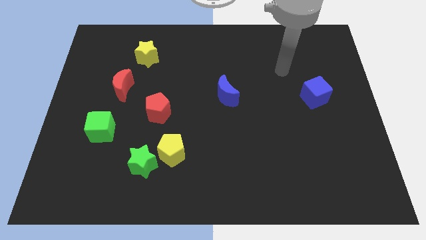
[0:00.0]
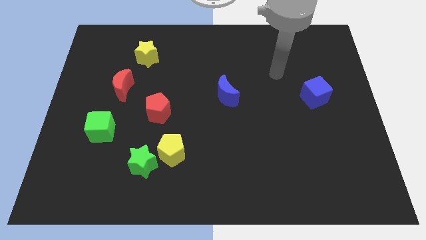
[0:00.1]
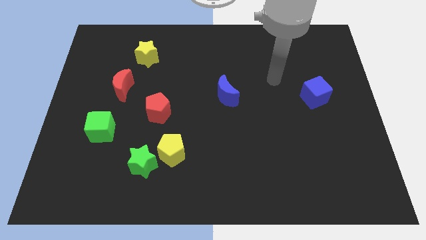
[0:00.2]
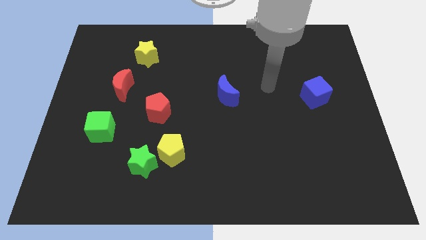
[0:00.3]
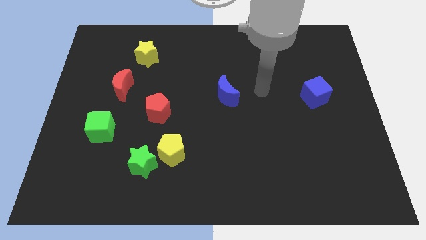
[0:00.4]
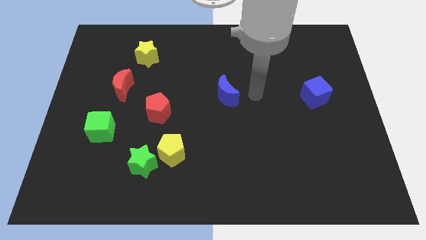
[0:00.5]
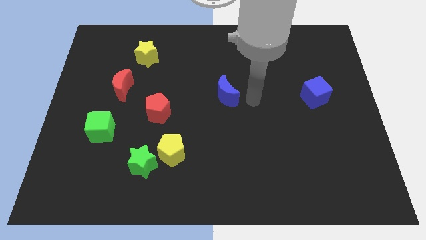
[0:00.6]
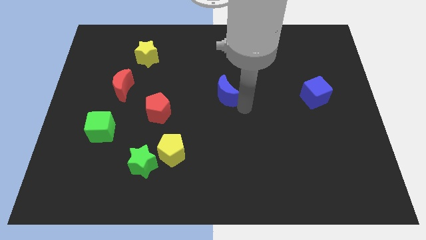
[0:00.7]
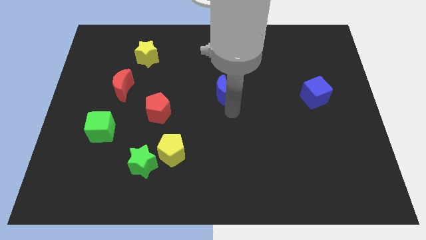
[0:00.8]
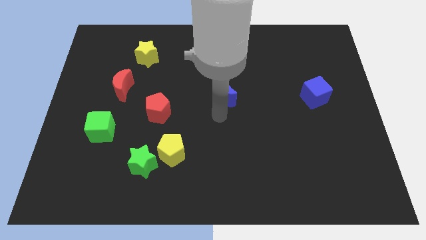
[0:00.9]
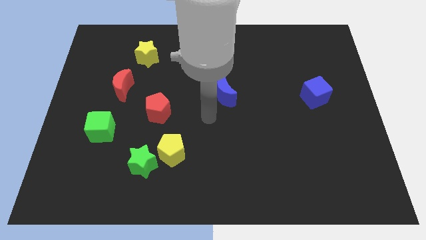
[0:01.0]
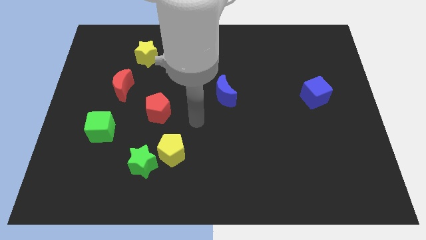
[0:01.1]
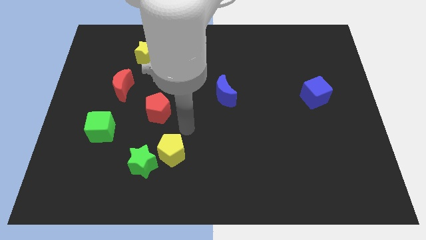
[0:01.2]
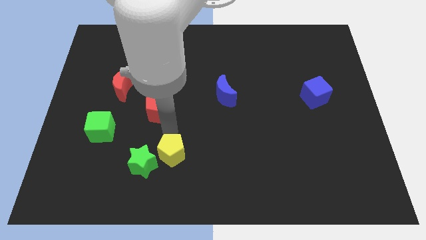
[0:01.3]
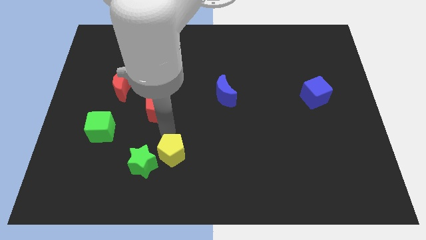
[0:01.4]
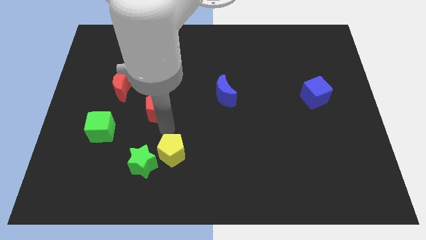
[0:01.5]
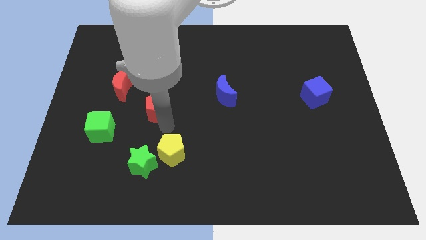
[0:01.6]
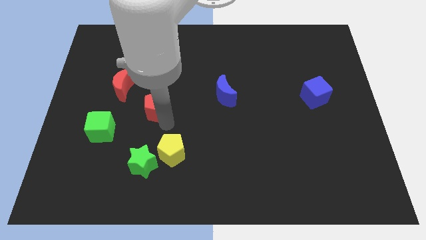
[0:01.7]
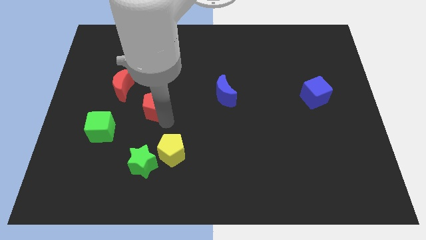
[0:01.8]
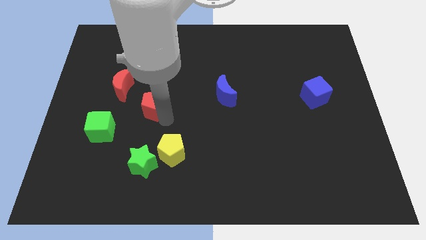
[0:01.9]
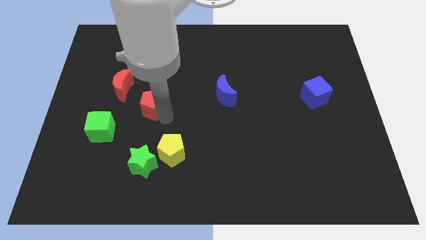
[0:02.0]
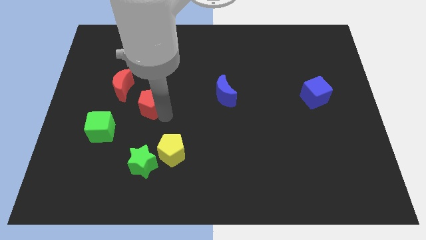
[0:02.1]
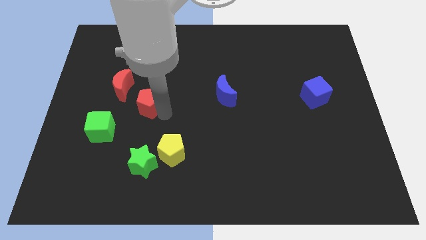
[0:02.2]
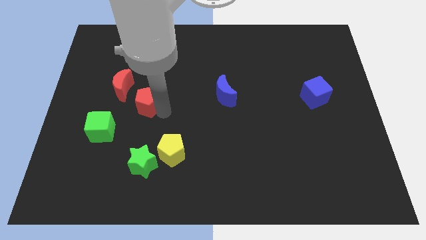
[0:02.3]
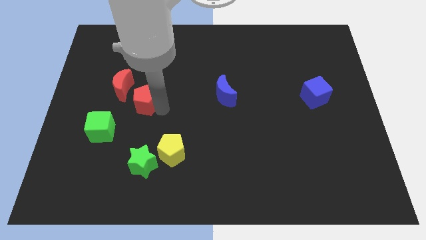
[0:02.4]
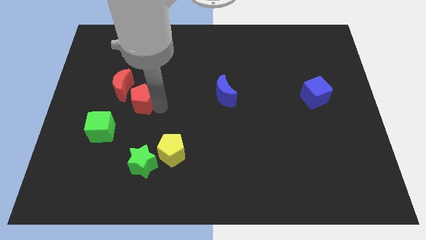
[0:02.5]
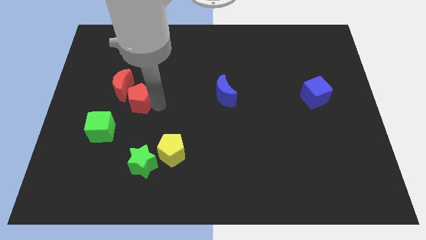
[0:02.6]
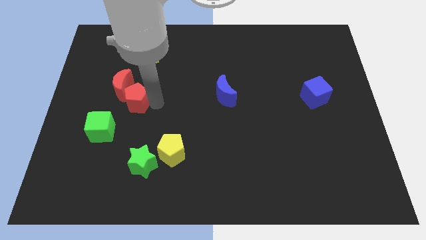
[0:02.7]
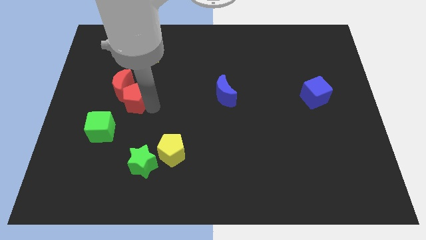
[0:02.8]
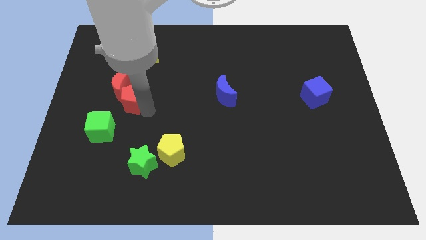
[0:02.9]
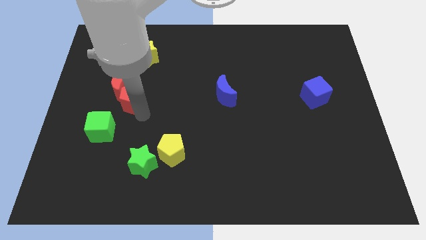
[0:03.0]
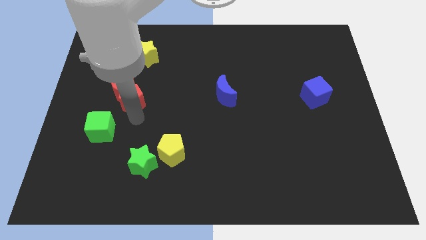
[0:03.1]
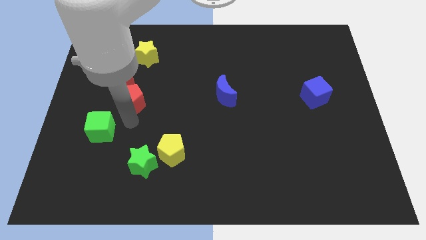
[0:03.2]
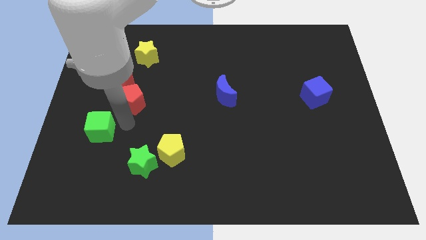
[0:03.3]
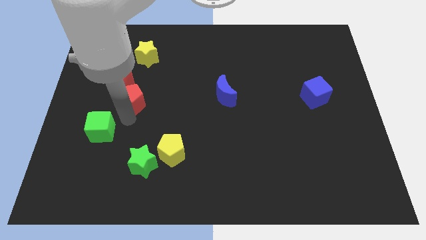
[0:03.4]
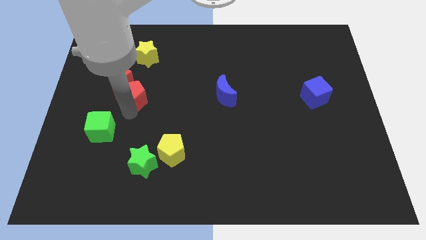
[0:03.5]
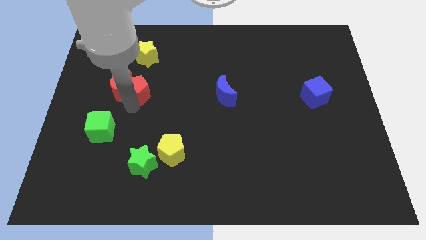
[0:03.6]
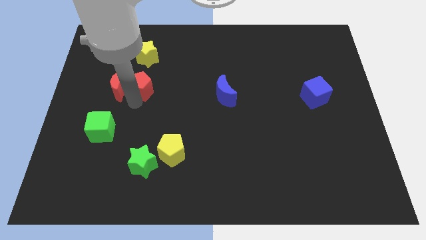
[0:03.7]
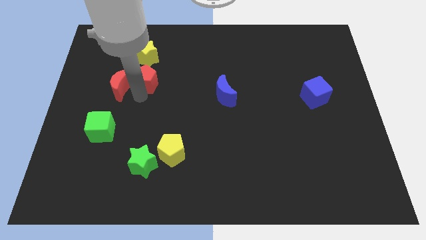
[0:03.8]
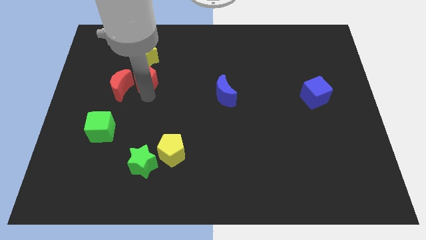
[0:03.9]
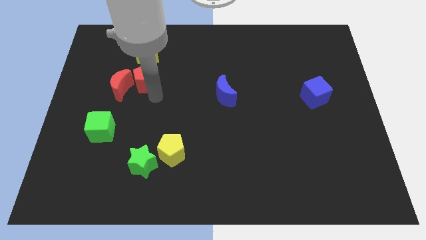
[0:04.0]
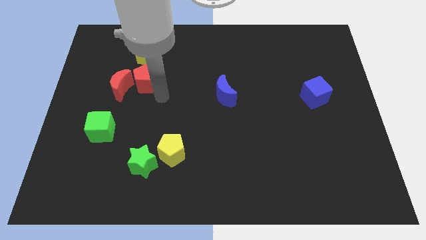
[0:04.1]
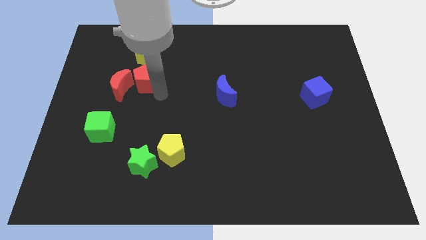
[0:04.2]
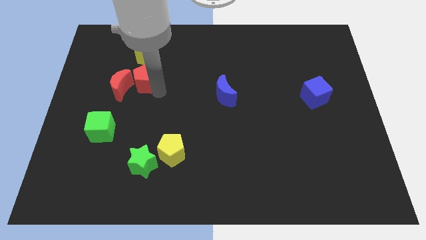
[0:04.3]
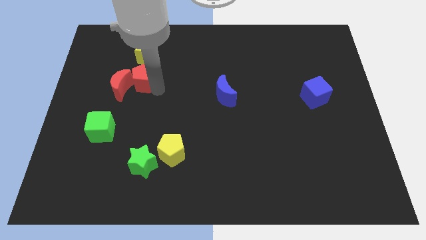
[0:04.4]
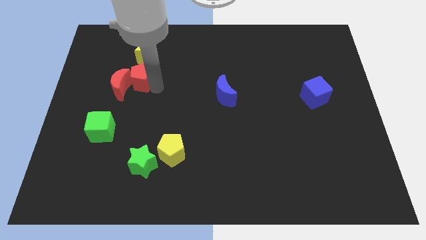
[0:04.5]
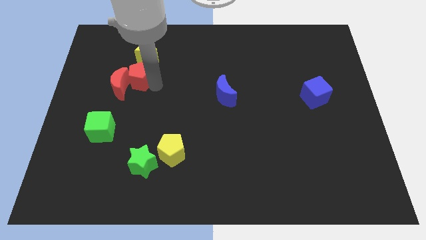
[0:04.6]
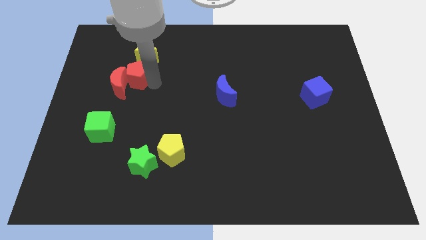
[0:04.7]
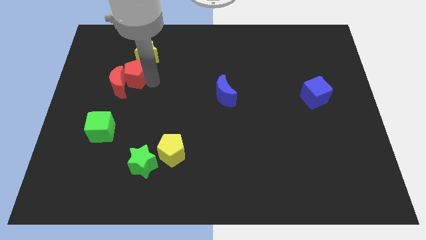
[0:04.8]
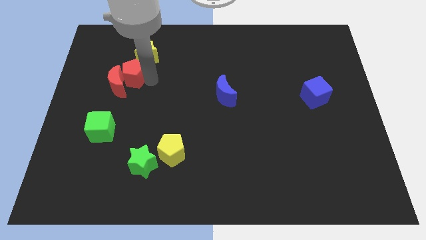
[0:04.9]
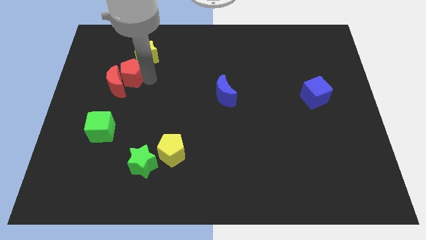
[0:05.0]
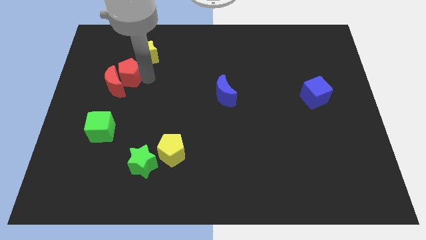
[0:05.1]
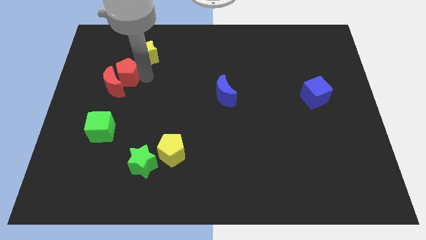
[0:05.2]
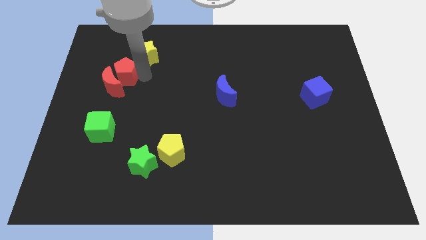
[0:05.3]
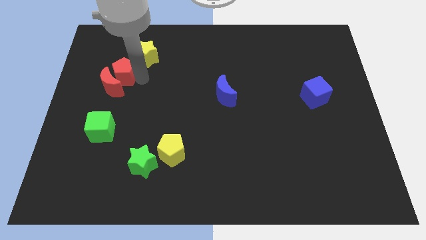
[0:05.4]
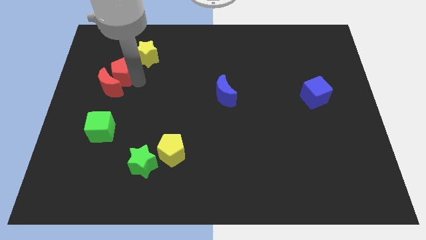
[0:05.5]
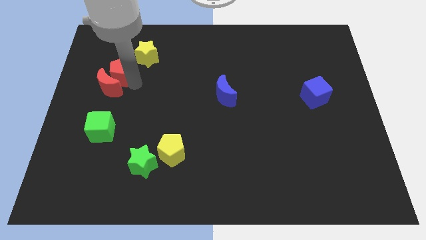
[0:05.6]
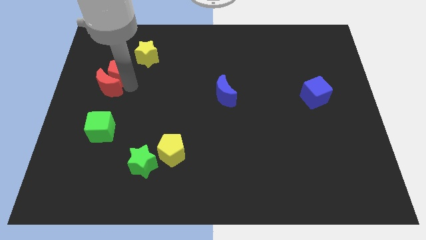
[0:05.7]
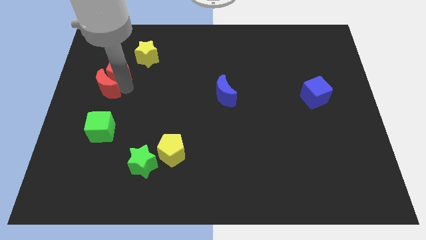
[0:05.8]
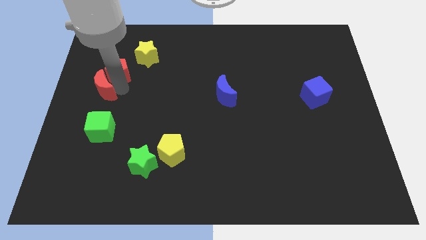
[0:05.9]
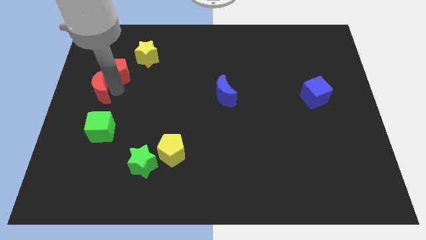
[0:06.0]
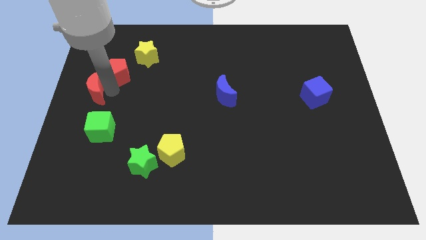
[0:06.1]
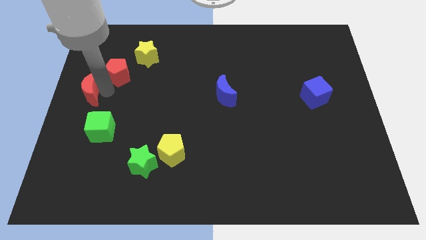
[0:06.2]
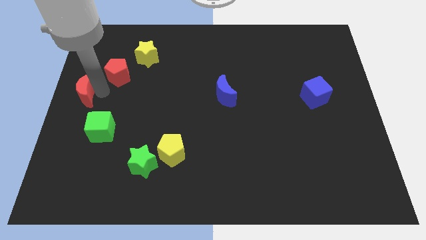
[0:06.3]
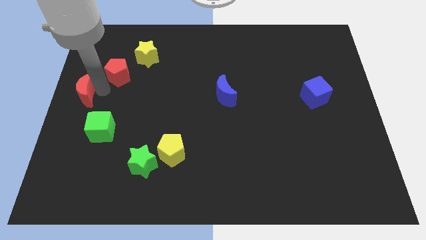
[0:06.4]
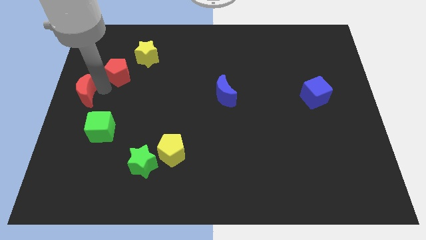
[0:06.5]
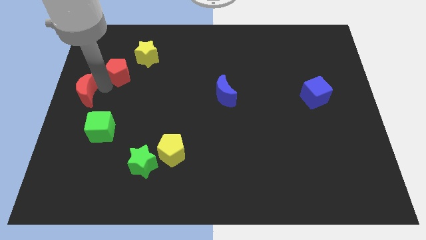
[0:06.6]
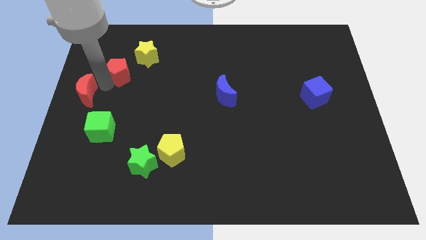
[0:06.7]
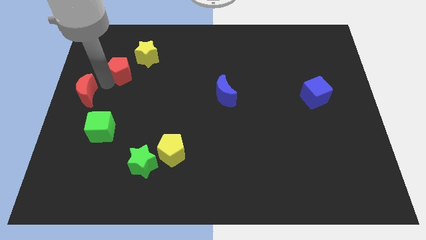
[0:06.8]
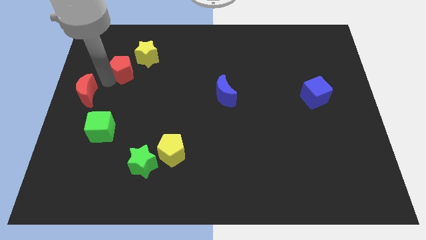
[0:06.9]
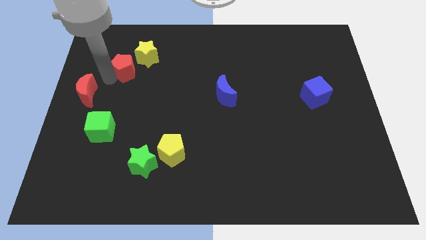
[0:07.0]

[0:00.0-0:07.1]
put the red pentagon left of the yellow star
